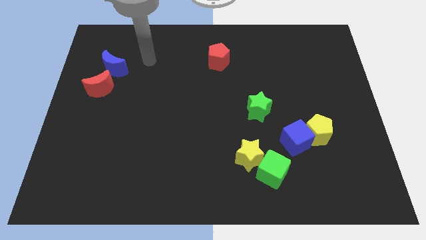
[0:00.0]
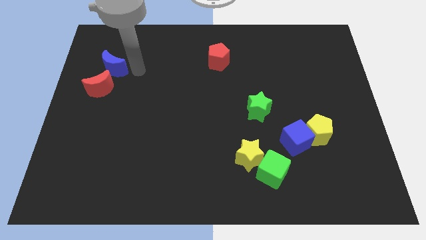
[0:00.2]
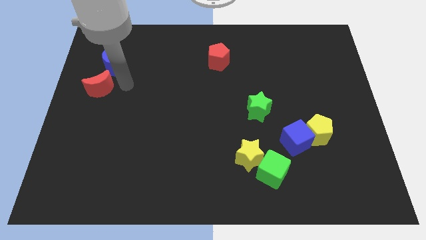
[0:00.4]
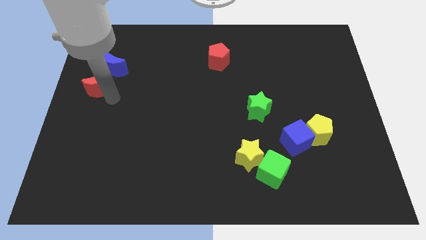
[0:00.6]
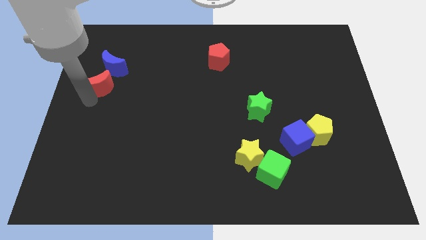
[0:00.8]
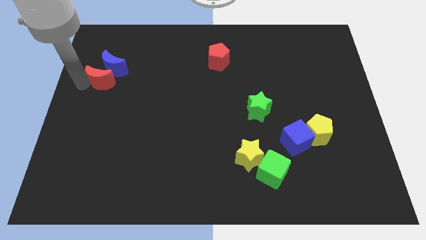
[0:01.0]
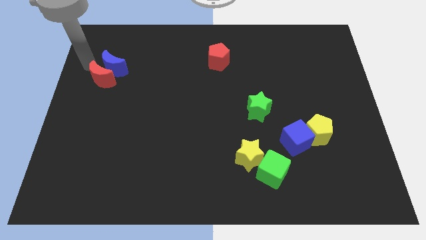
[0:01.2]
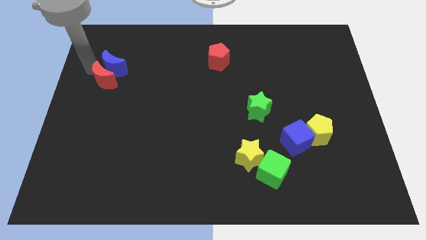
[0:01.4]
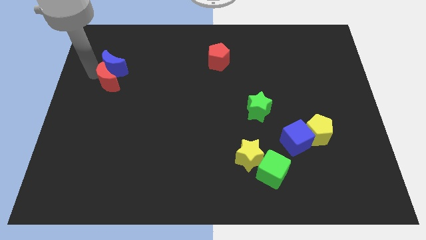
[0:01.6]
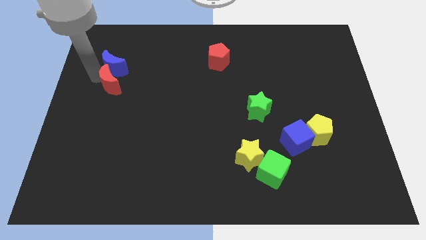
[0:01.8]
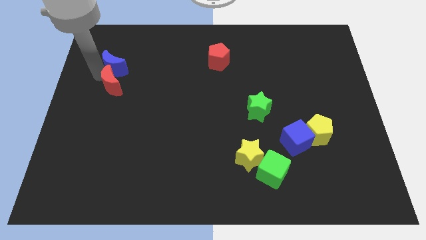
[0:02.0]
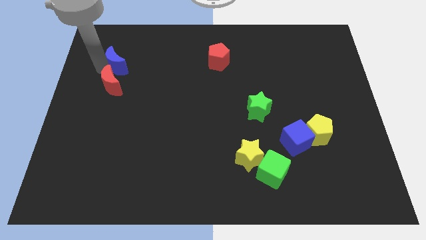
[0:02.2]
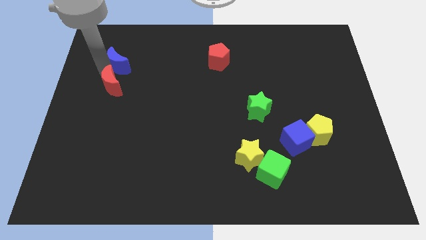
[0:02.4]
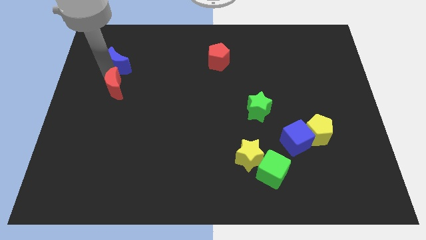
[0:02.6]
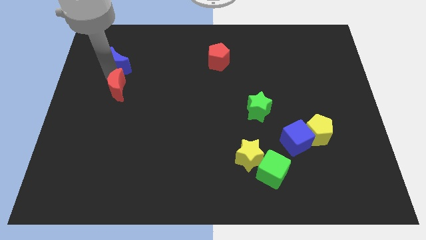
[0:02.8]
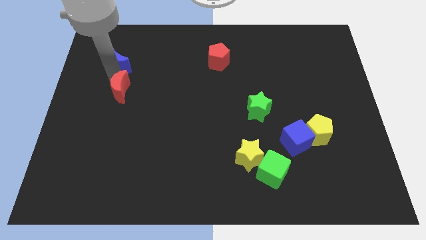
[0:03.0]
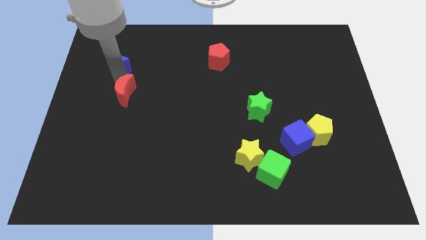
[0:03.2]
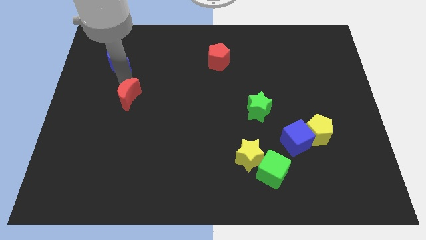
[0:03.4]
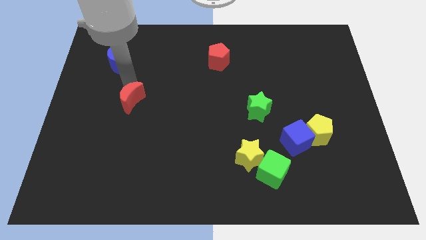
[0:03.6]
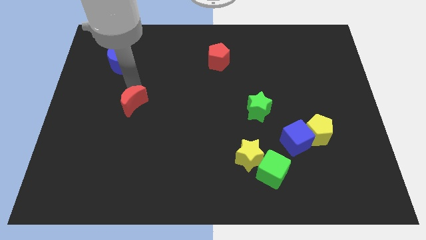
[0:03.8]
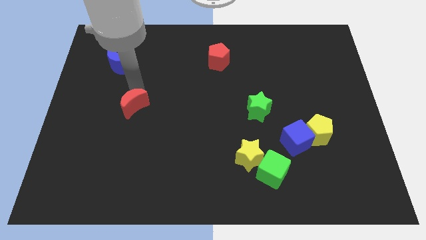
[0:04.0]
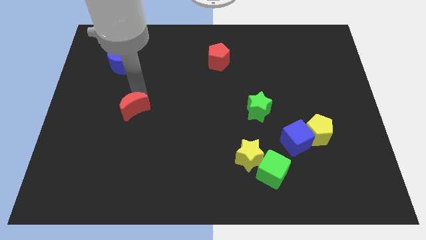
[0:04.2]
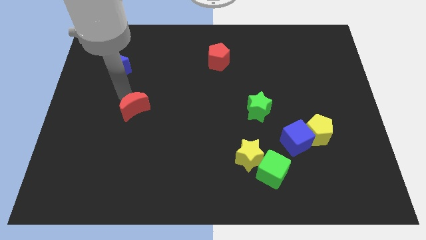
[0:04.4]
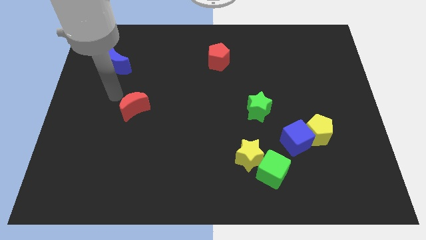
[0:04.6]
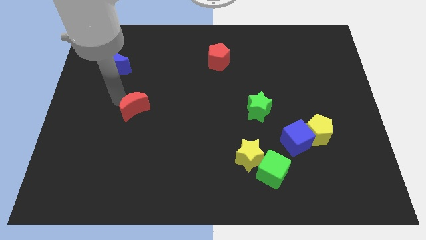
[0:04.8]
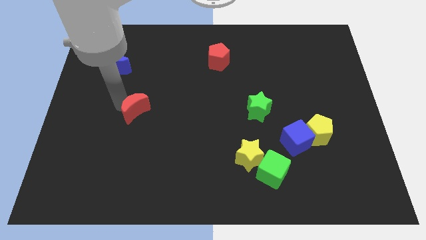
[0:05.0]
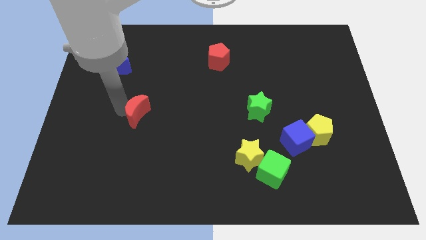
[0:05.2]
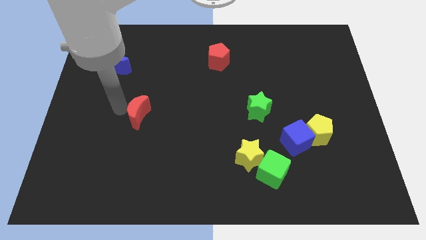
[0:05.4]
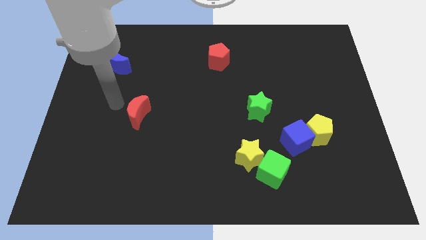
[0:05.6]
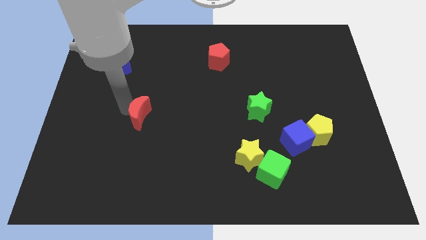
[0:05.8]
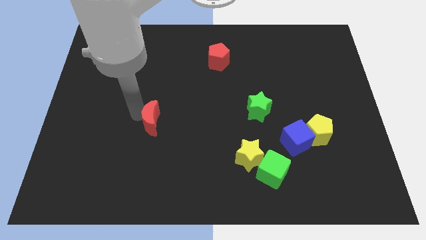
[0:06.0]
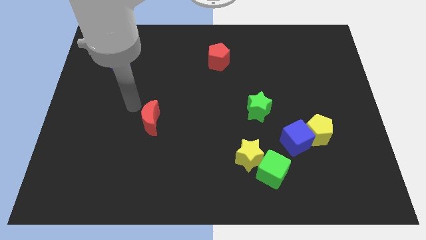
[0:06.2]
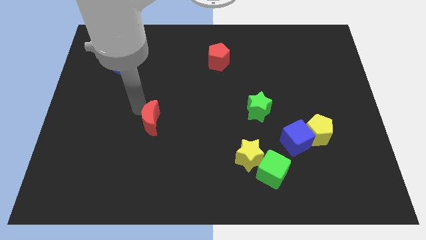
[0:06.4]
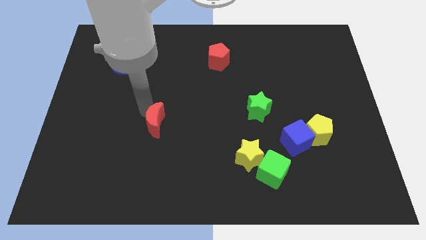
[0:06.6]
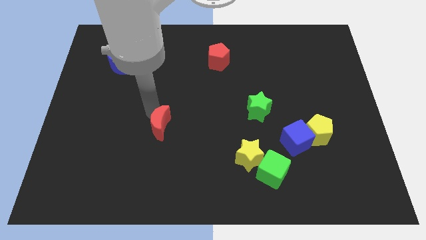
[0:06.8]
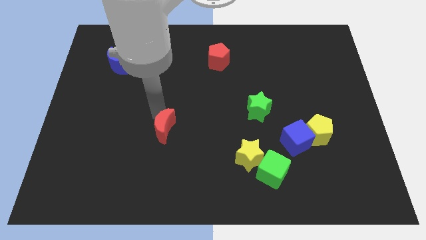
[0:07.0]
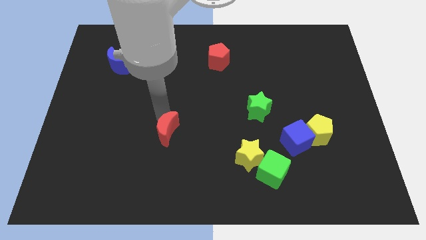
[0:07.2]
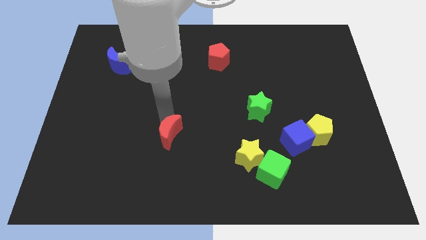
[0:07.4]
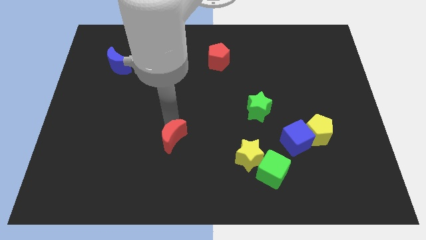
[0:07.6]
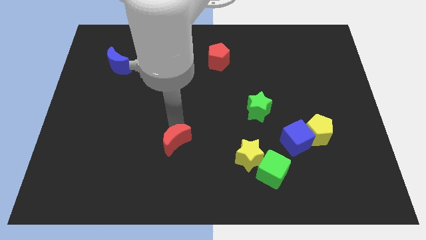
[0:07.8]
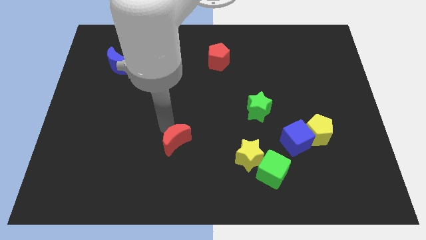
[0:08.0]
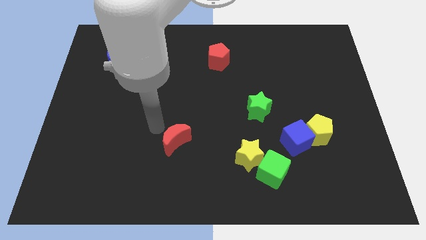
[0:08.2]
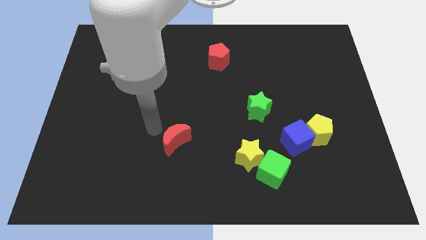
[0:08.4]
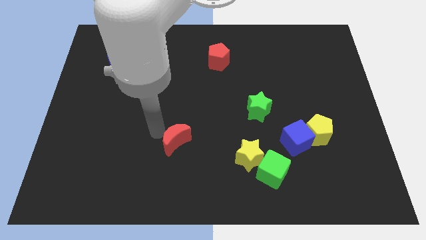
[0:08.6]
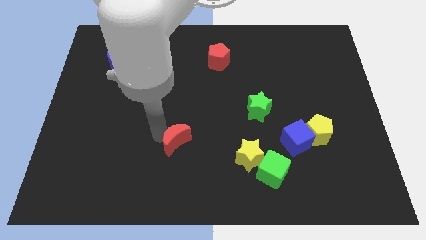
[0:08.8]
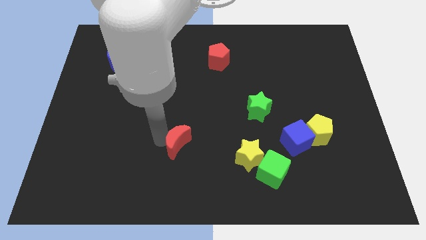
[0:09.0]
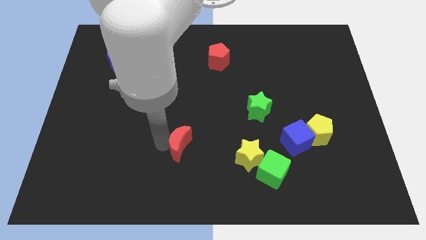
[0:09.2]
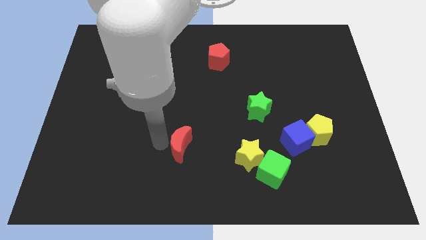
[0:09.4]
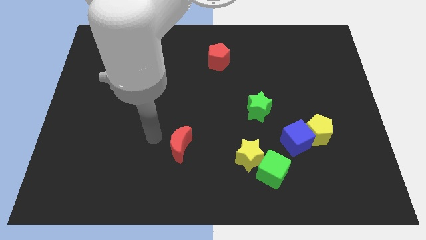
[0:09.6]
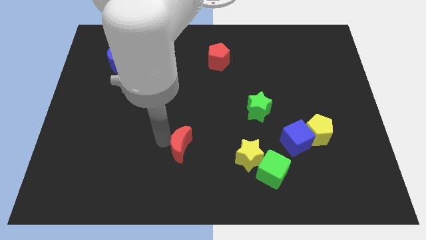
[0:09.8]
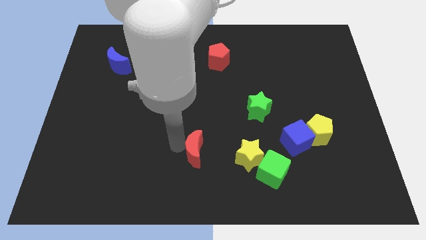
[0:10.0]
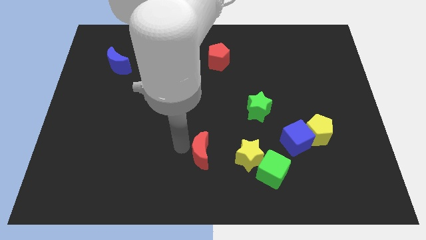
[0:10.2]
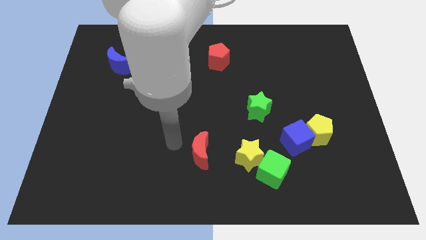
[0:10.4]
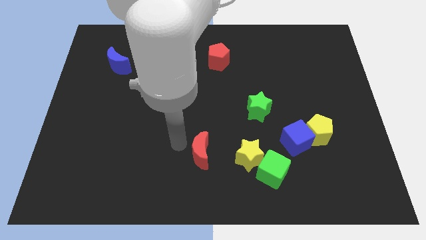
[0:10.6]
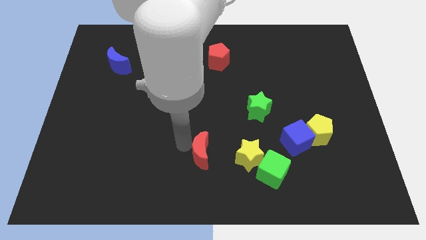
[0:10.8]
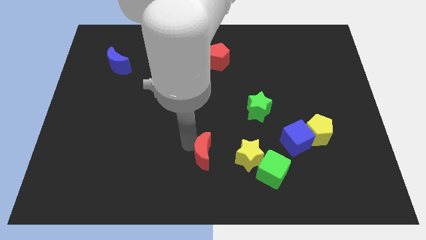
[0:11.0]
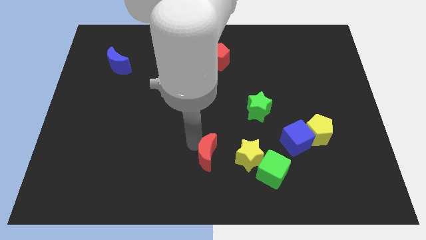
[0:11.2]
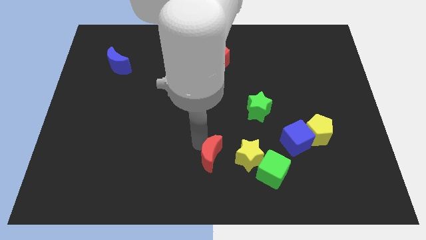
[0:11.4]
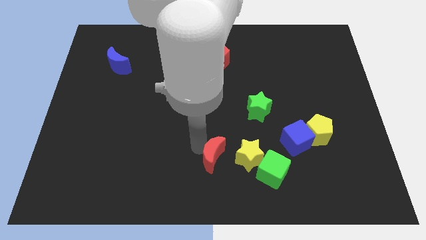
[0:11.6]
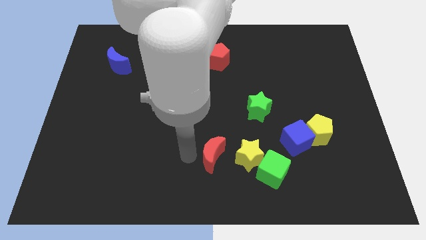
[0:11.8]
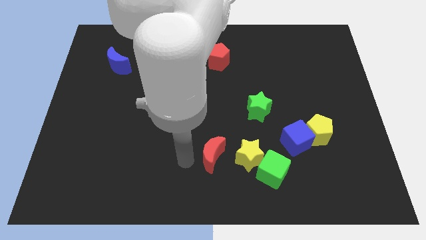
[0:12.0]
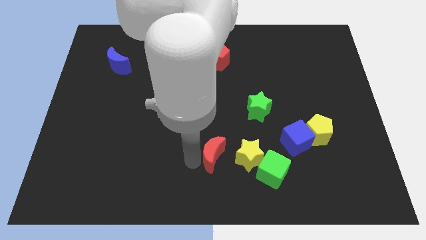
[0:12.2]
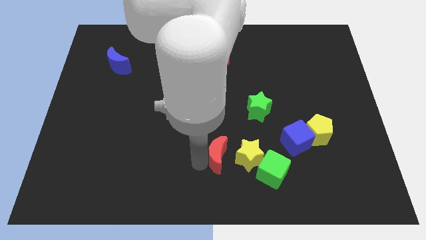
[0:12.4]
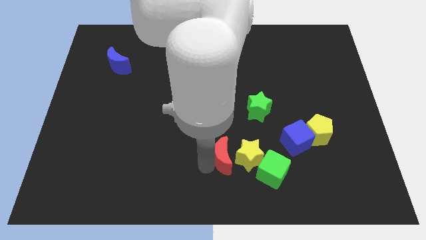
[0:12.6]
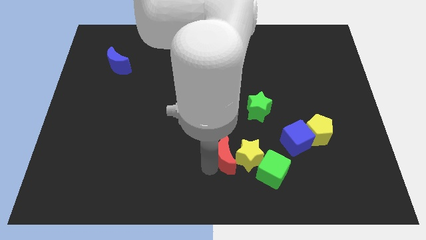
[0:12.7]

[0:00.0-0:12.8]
slide the red moon to the top left side of the green cube

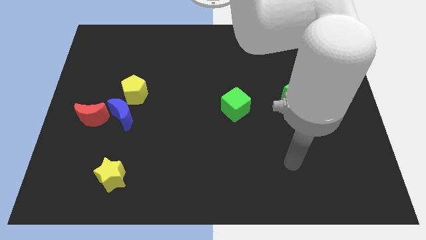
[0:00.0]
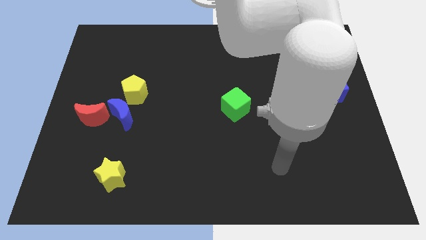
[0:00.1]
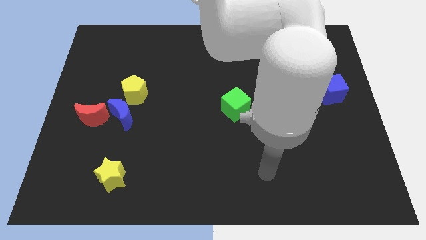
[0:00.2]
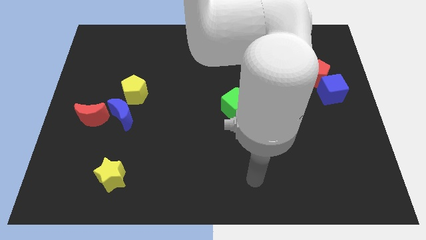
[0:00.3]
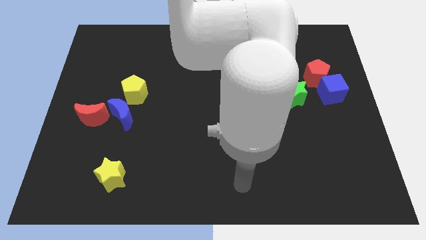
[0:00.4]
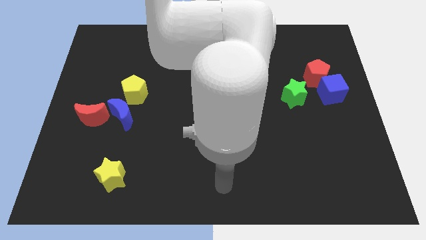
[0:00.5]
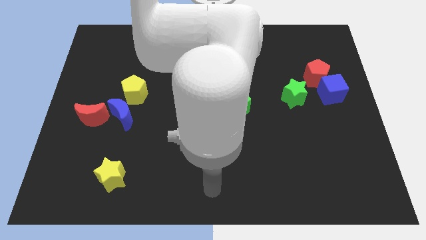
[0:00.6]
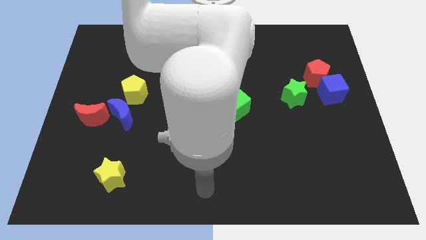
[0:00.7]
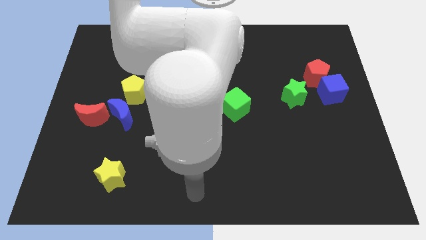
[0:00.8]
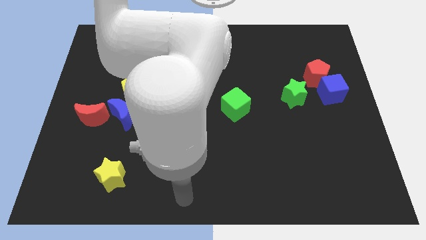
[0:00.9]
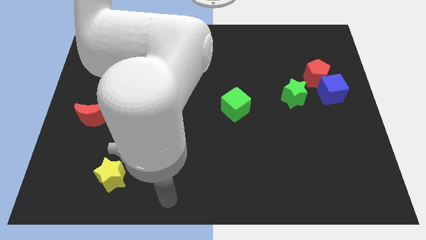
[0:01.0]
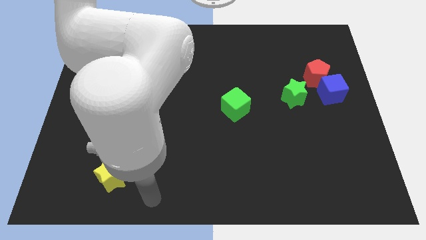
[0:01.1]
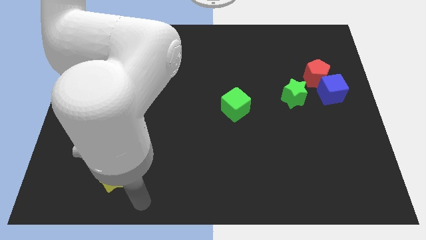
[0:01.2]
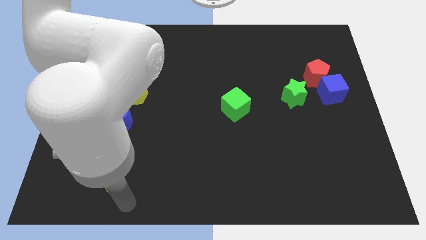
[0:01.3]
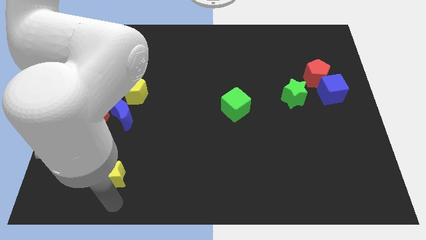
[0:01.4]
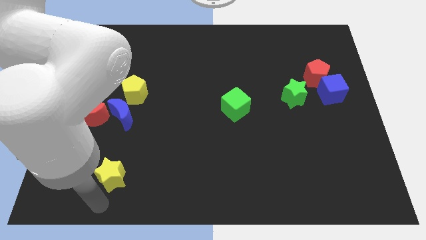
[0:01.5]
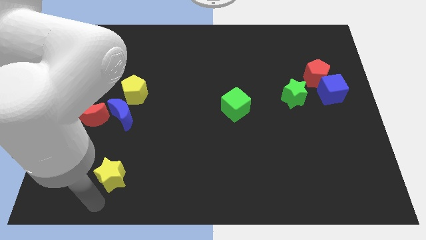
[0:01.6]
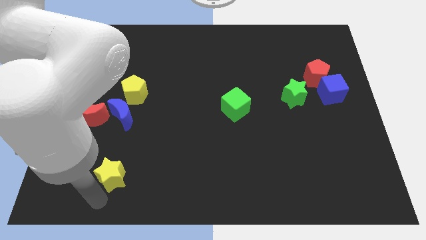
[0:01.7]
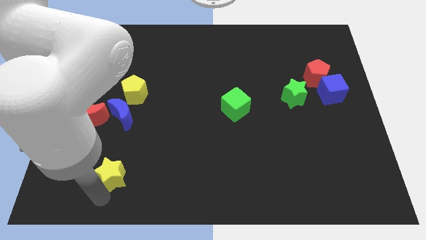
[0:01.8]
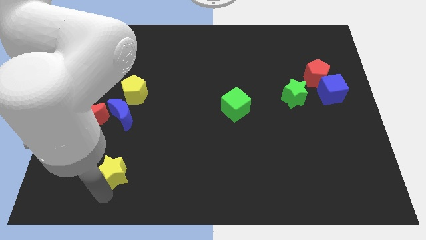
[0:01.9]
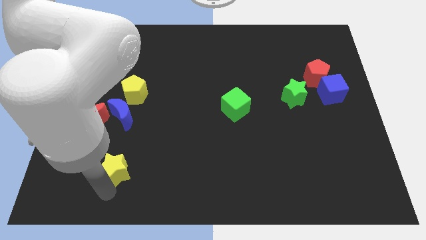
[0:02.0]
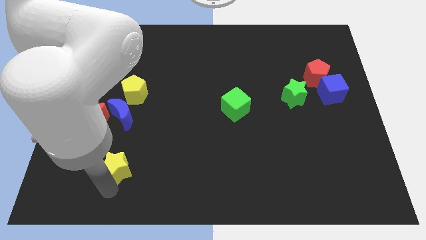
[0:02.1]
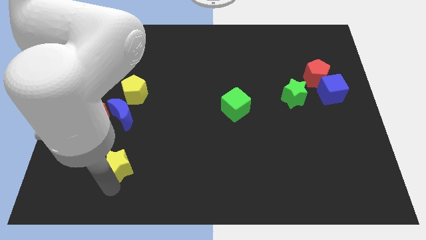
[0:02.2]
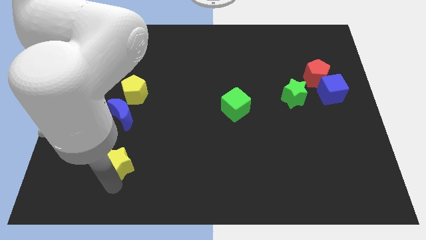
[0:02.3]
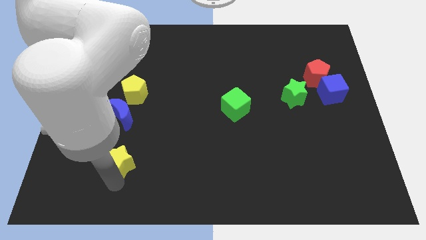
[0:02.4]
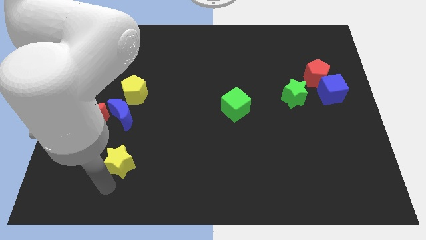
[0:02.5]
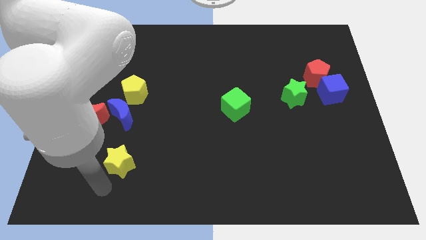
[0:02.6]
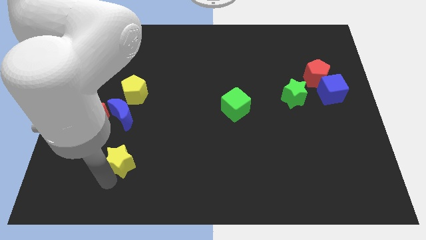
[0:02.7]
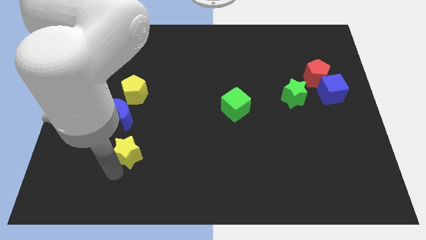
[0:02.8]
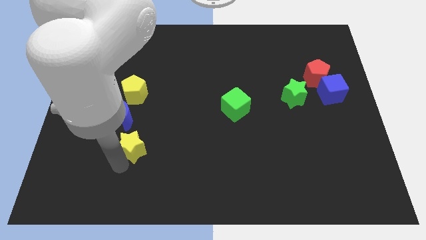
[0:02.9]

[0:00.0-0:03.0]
slide the yellow star to the bottom right of the blue moon
